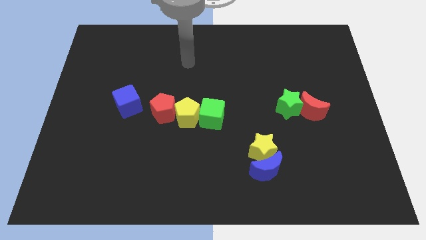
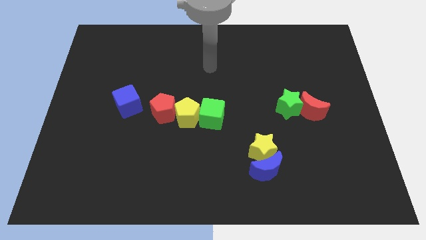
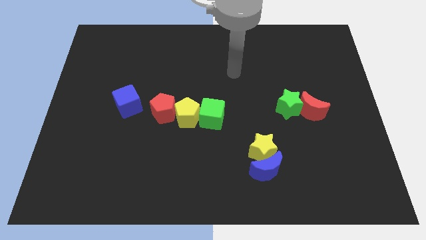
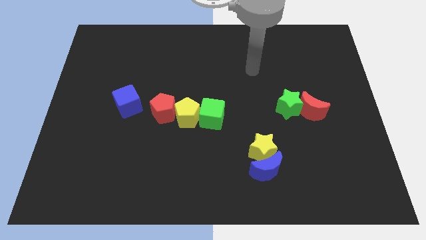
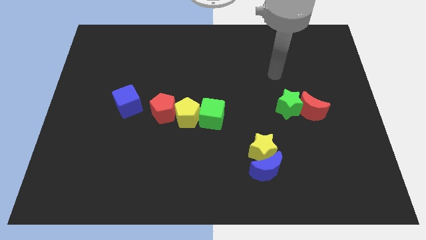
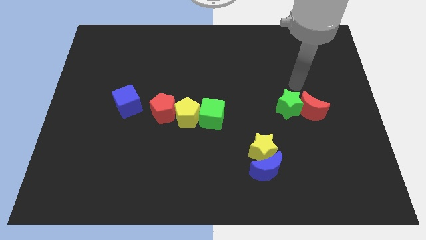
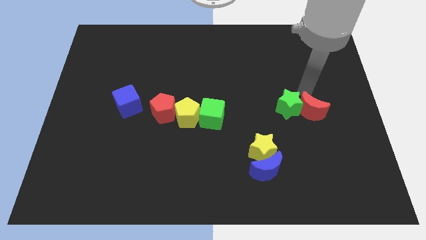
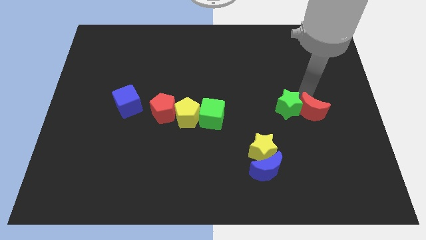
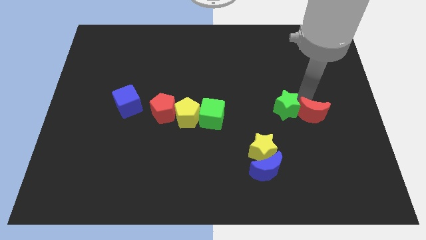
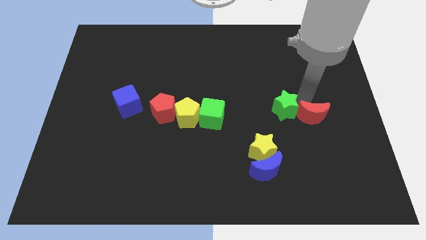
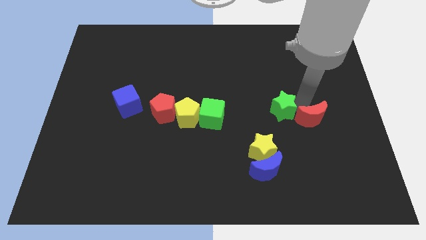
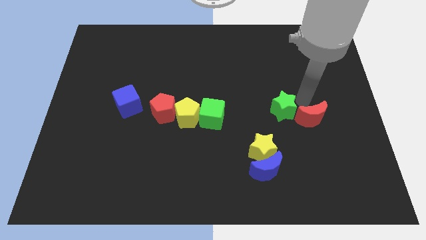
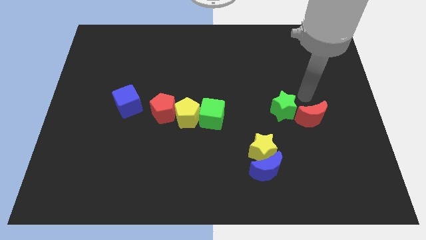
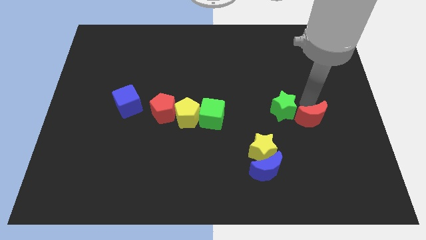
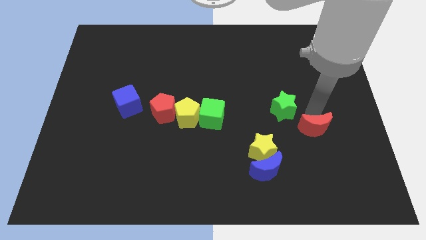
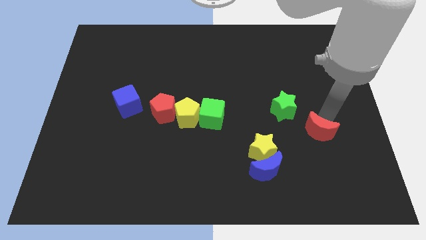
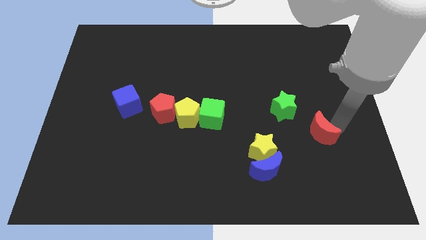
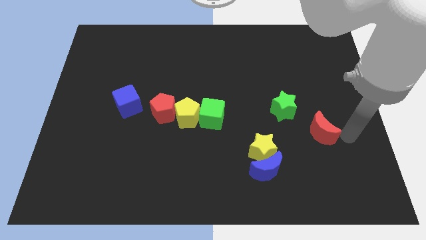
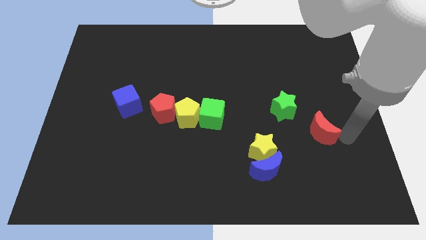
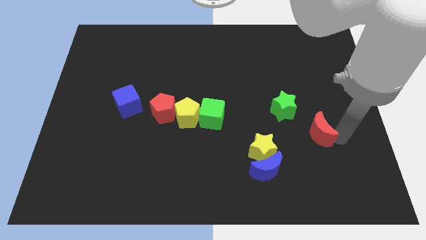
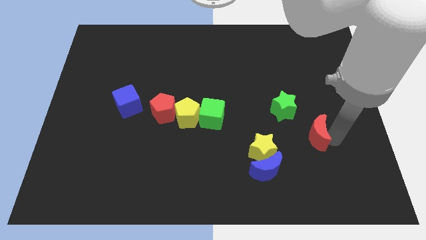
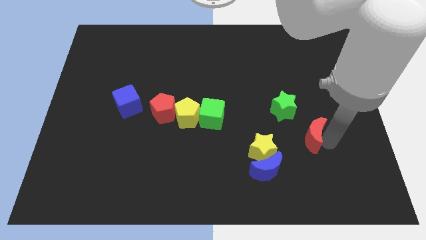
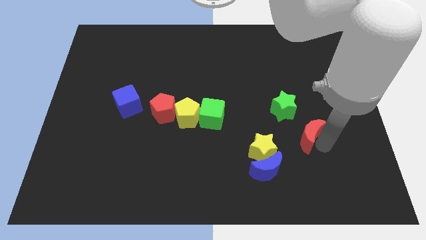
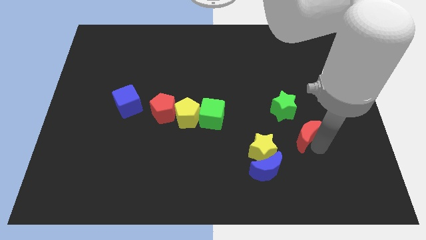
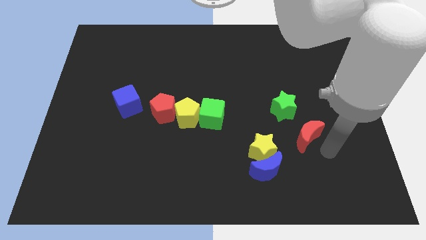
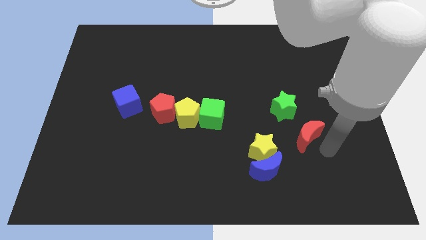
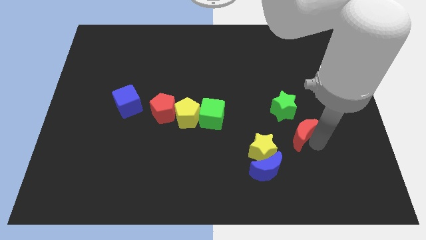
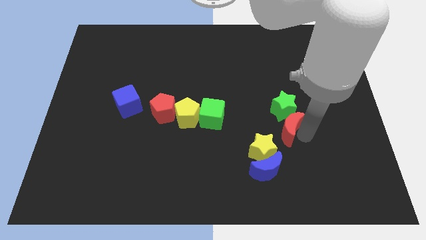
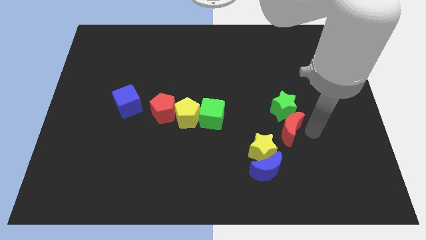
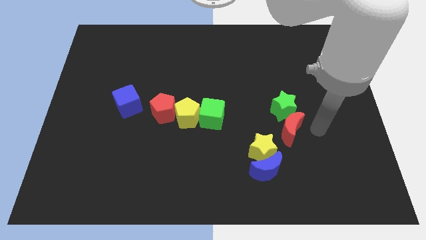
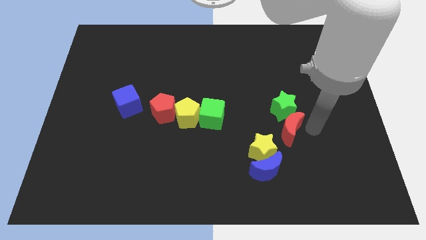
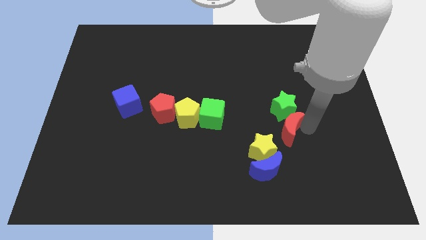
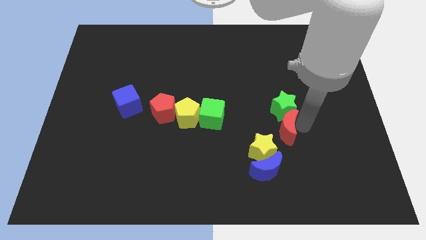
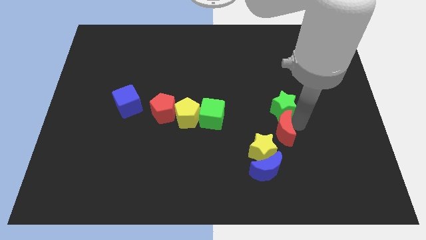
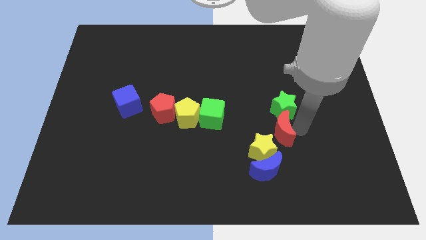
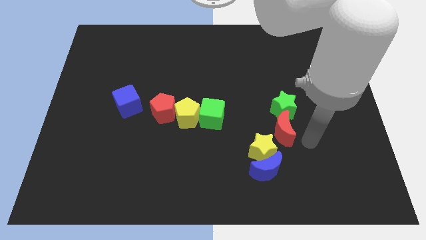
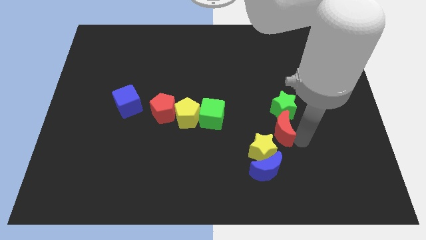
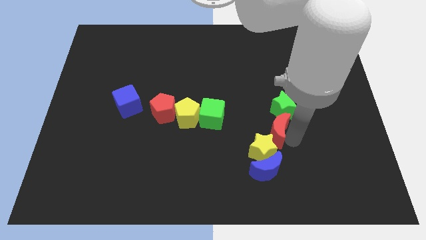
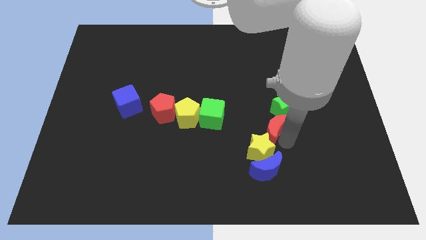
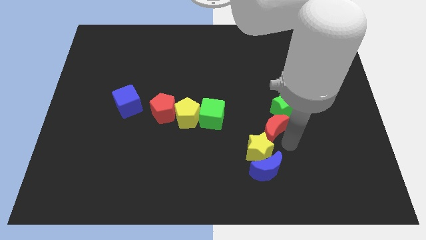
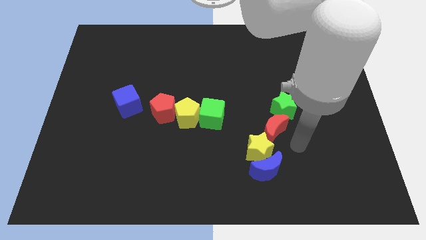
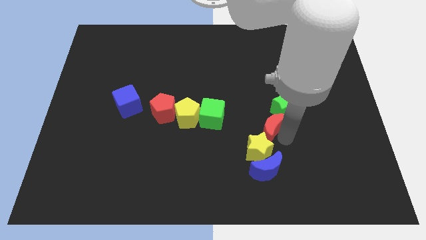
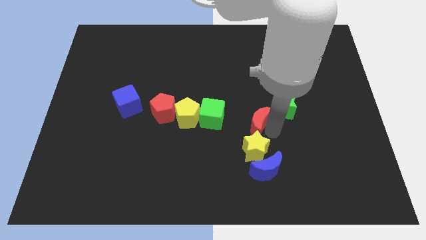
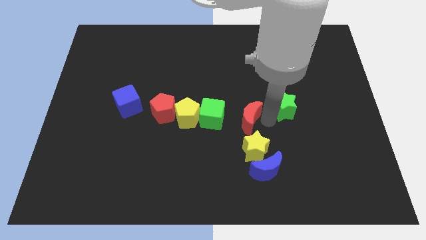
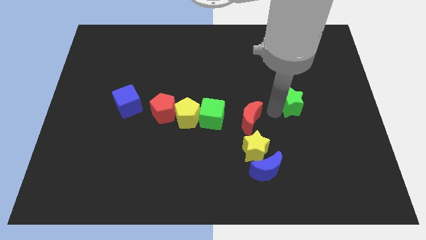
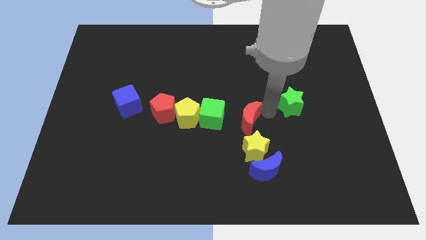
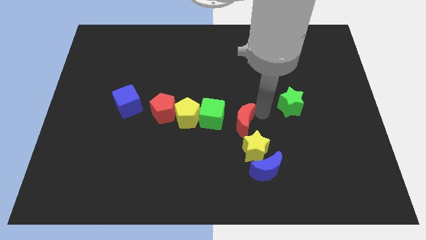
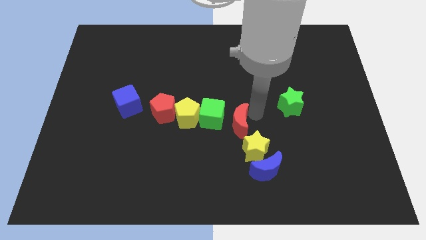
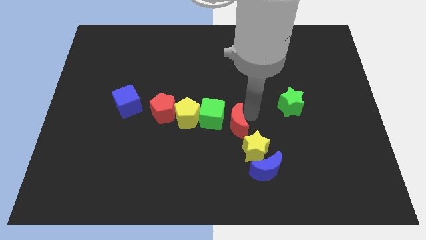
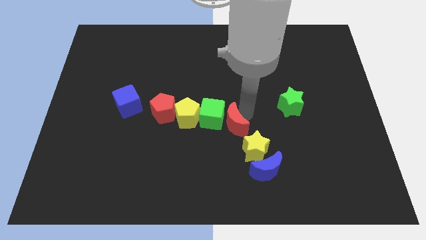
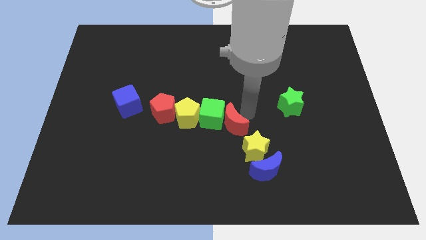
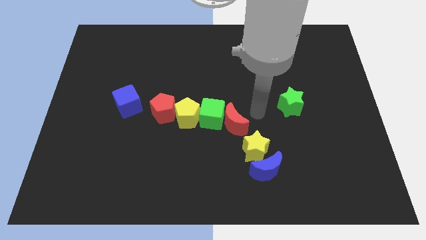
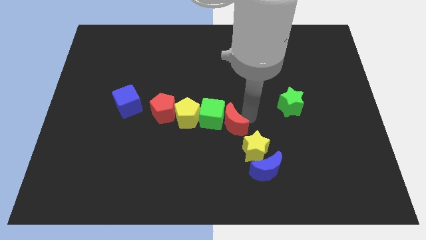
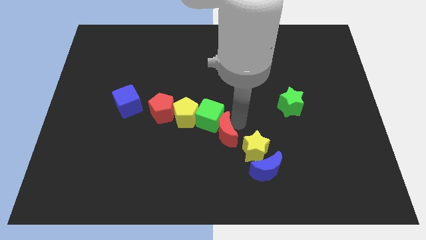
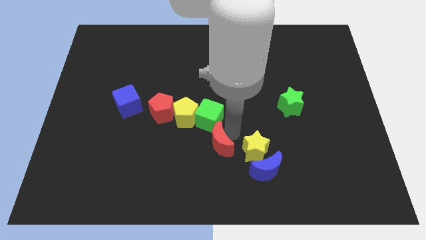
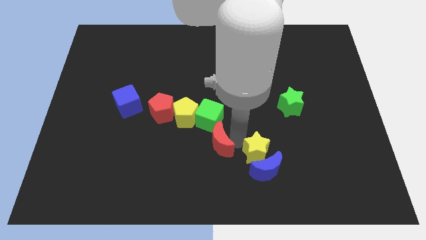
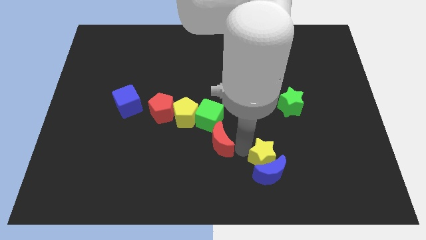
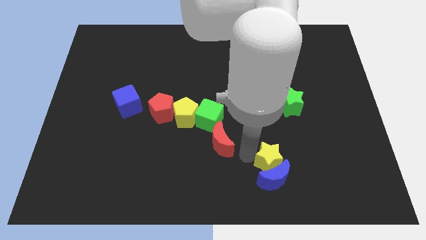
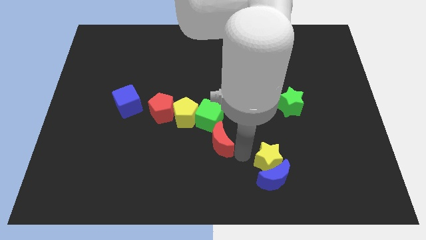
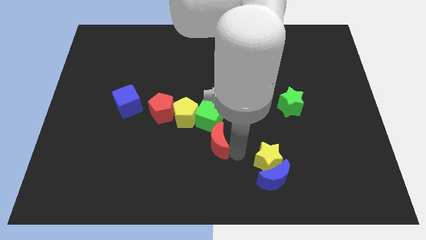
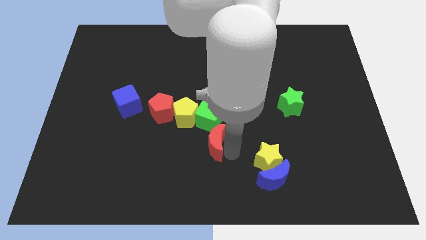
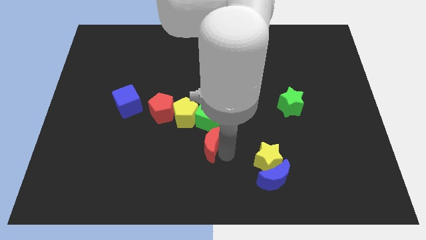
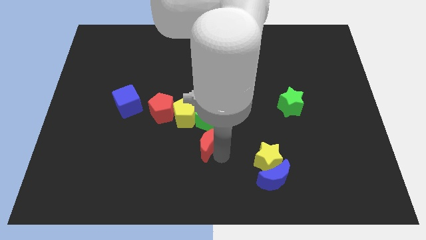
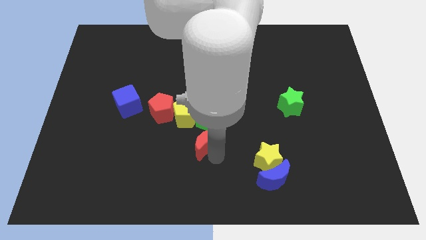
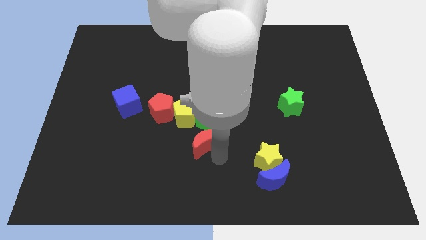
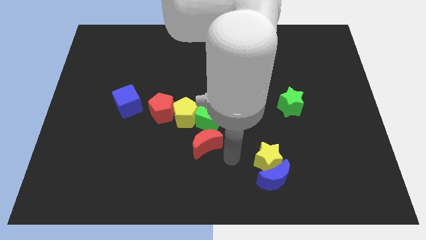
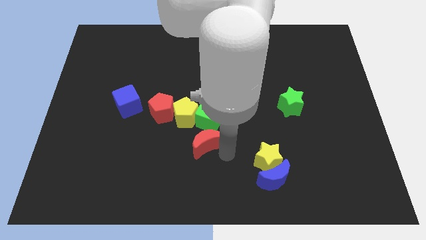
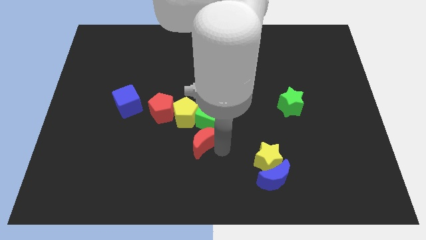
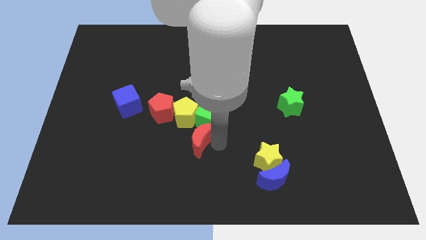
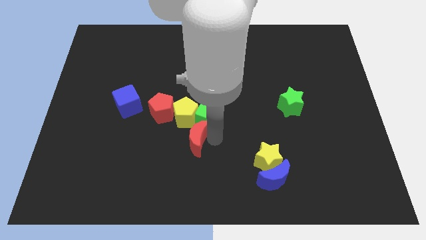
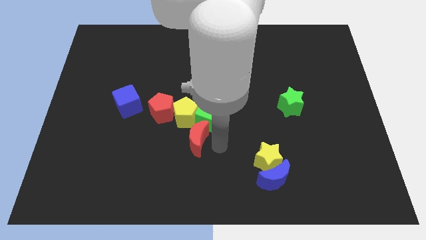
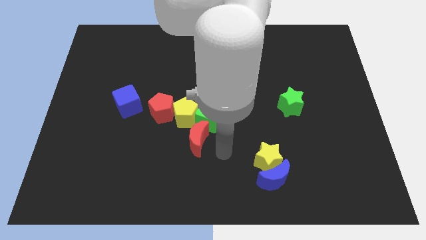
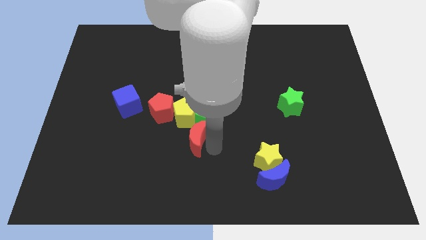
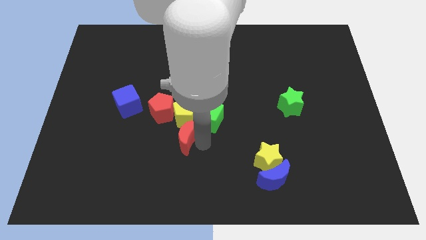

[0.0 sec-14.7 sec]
push the red moon to the bottom left side of the yellow pentagon

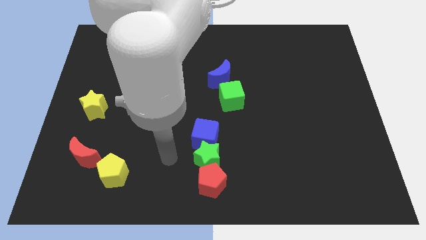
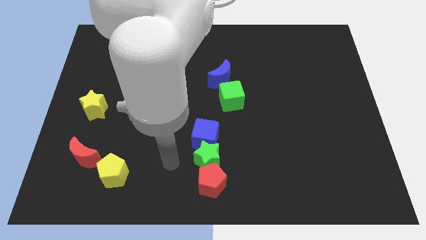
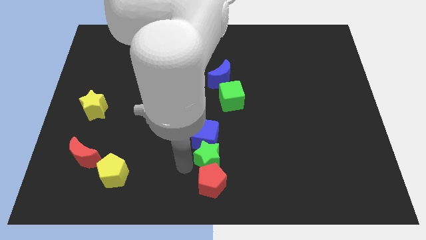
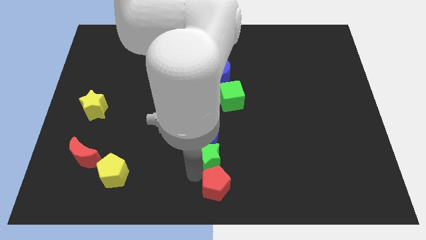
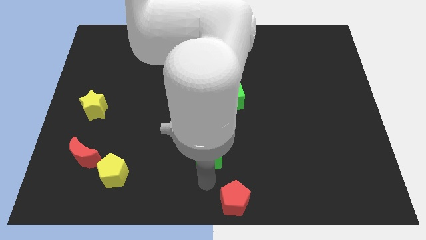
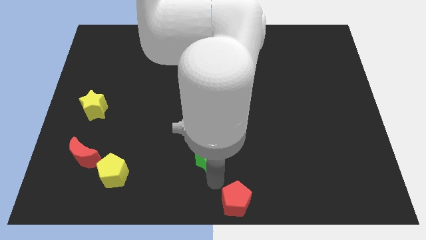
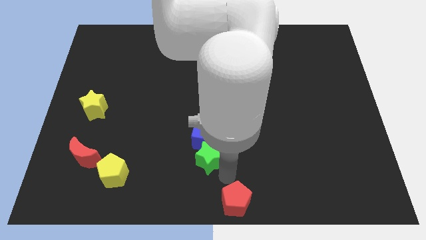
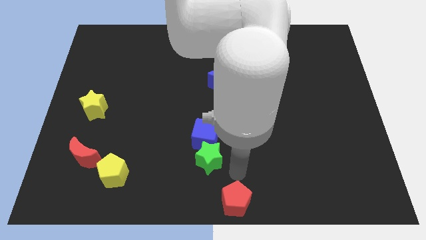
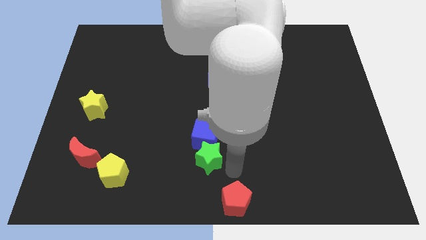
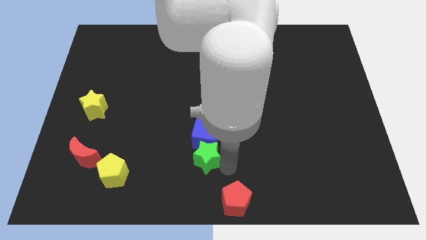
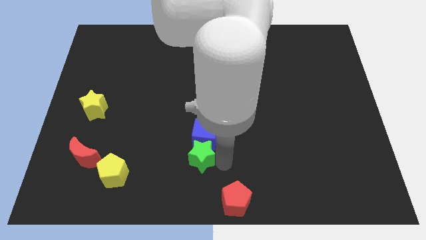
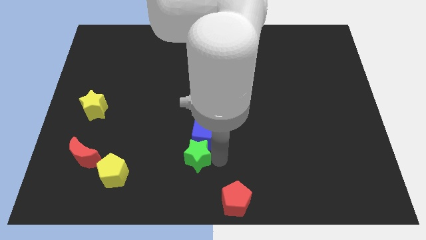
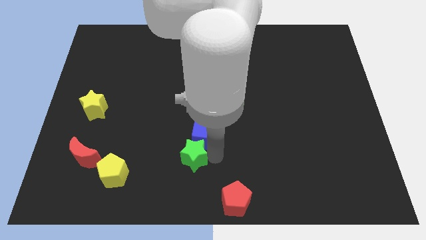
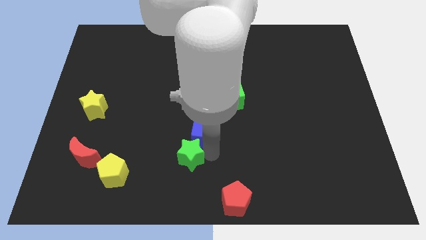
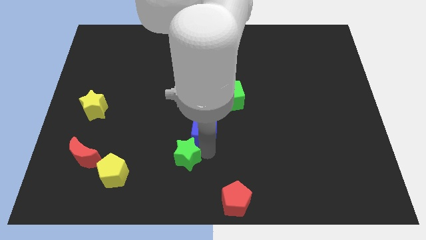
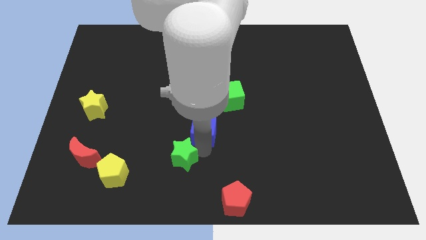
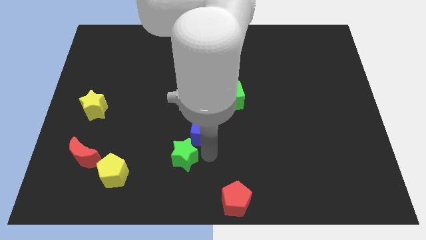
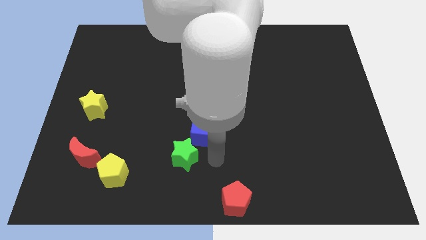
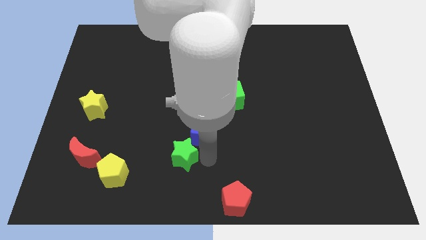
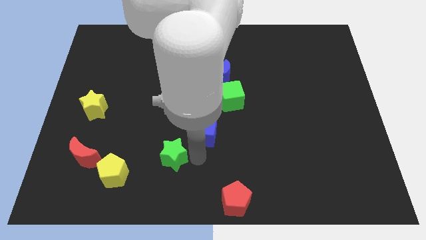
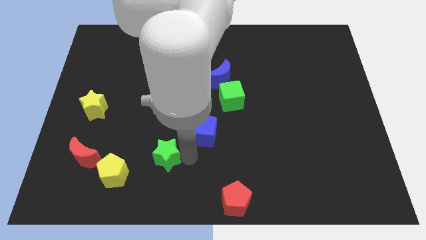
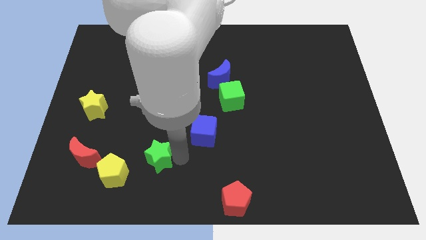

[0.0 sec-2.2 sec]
push the green star to the top right side of the yellow pentagon
